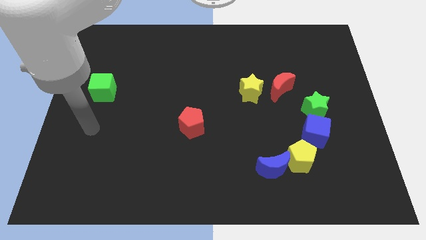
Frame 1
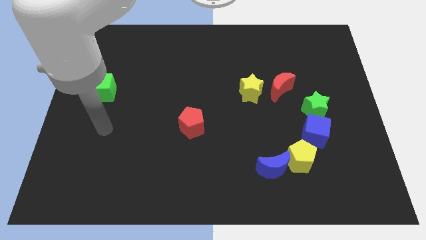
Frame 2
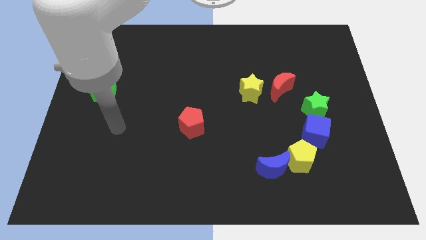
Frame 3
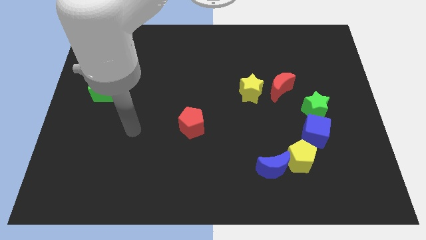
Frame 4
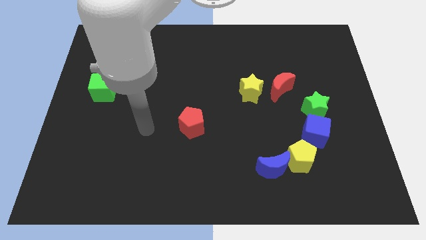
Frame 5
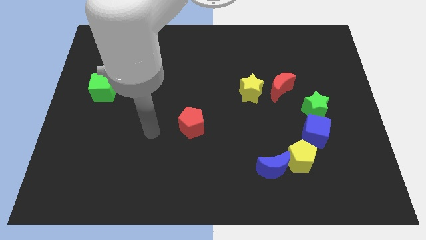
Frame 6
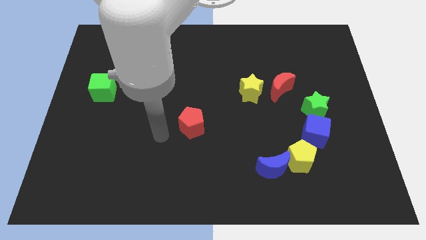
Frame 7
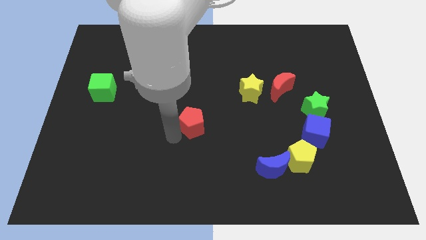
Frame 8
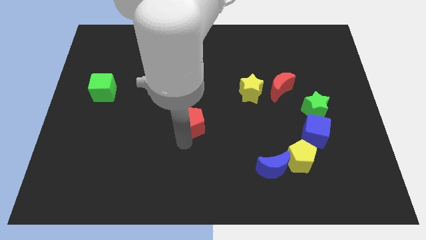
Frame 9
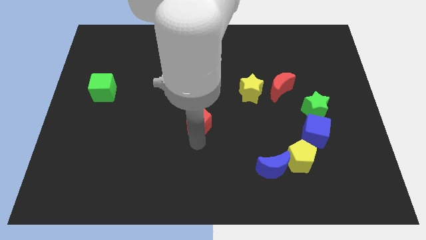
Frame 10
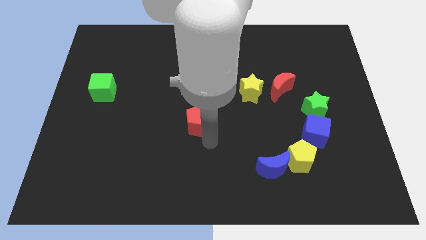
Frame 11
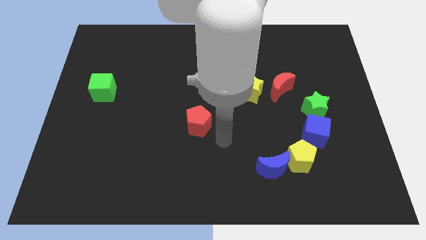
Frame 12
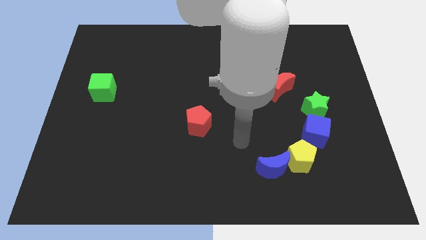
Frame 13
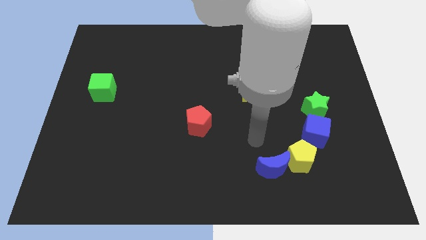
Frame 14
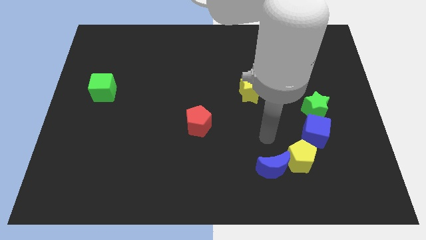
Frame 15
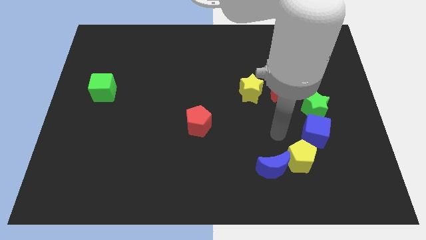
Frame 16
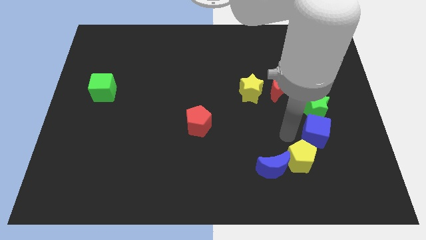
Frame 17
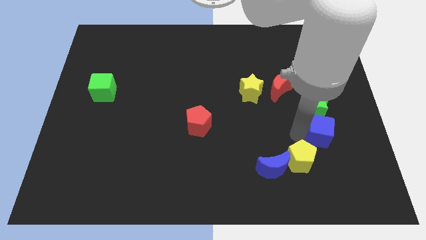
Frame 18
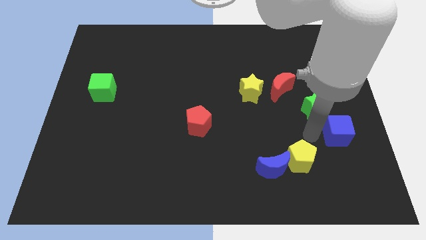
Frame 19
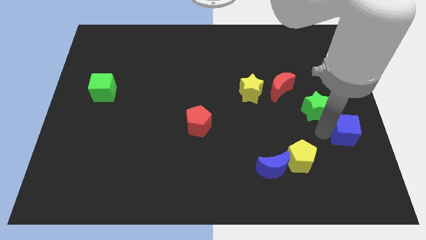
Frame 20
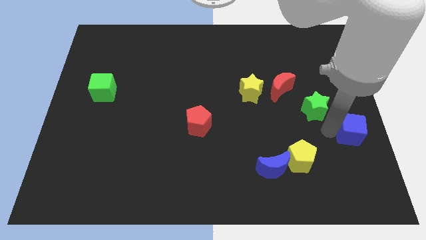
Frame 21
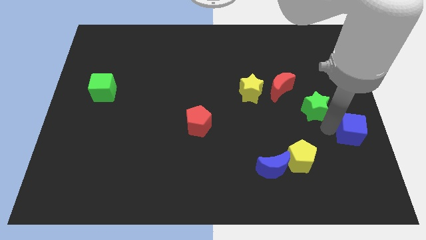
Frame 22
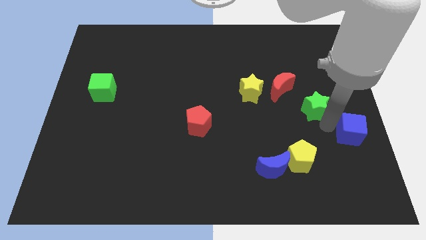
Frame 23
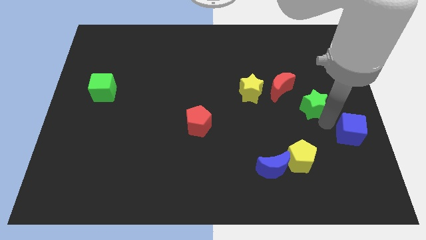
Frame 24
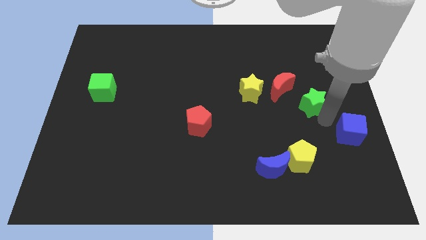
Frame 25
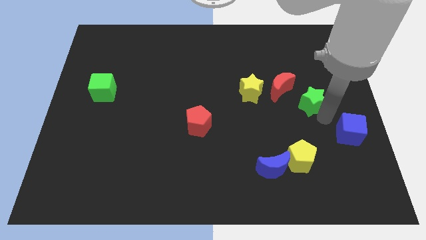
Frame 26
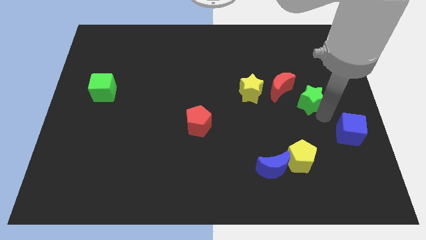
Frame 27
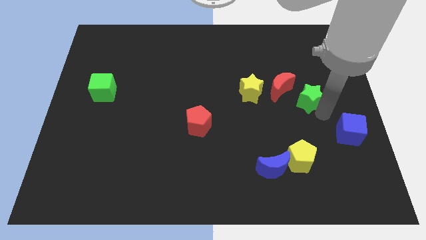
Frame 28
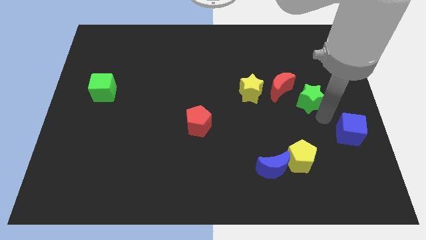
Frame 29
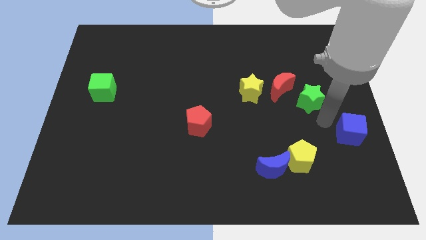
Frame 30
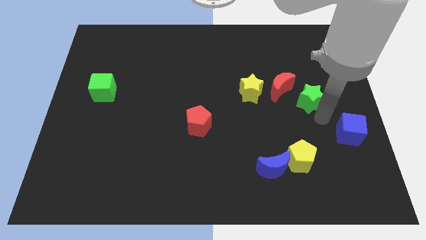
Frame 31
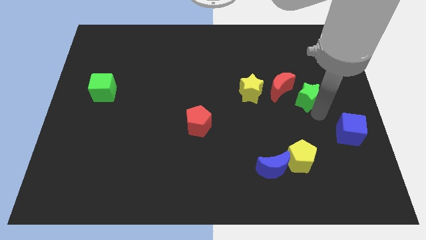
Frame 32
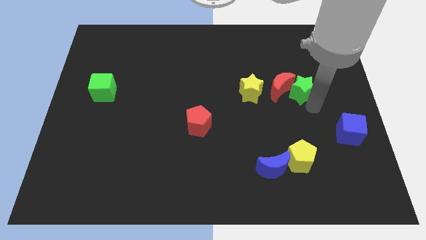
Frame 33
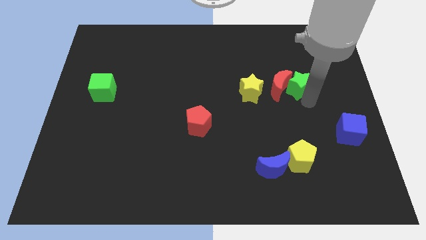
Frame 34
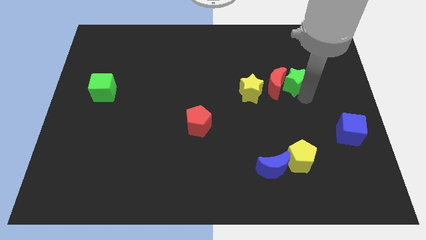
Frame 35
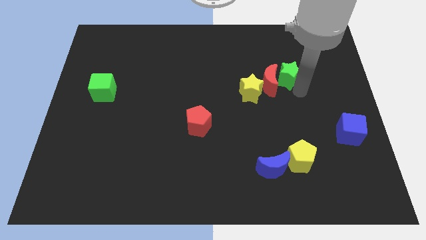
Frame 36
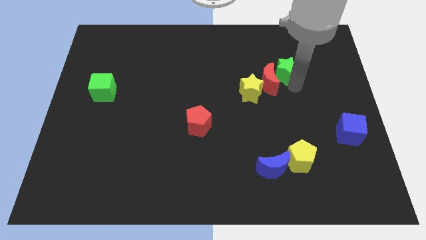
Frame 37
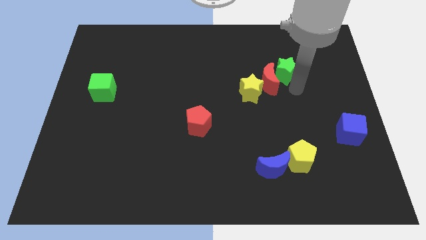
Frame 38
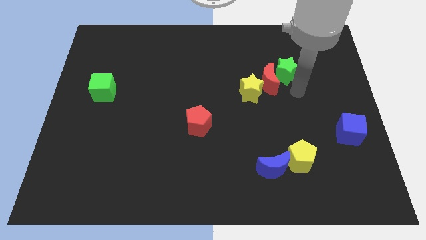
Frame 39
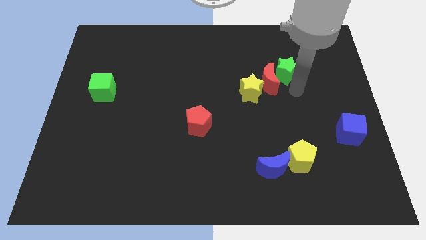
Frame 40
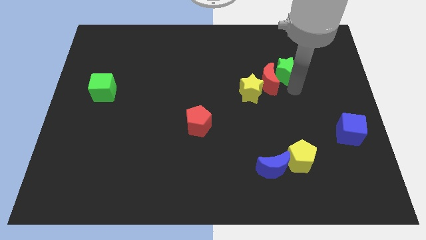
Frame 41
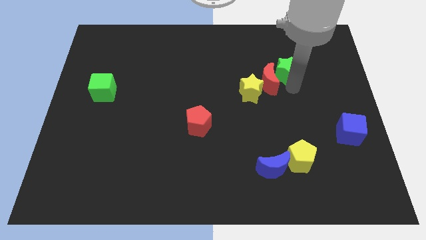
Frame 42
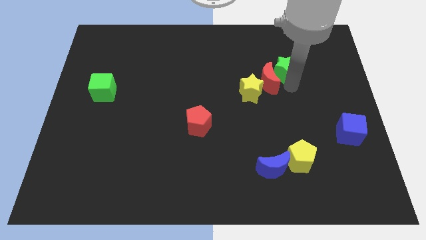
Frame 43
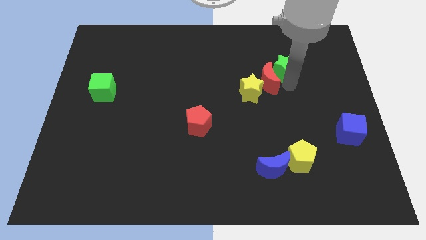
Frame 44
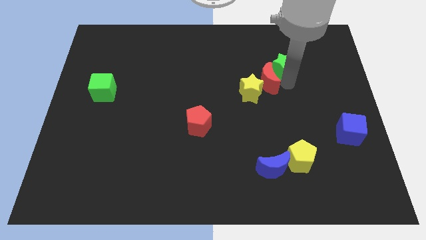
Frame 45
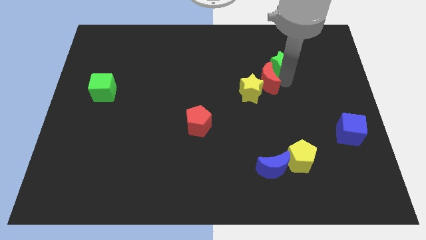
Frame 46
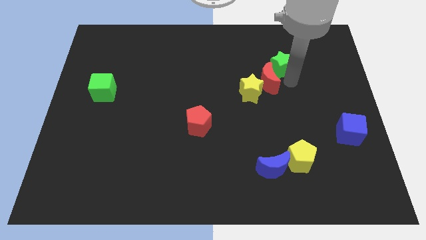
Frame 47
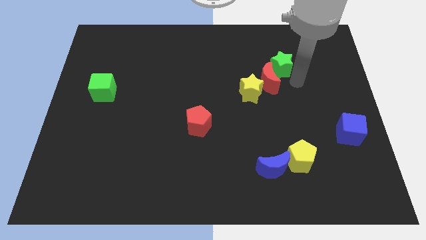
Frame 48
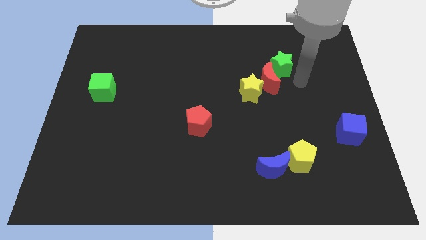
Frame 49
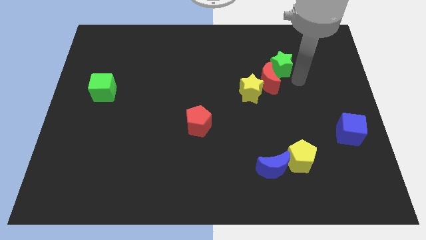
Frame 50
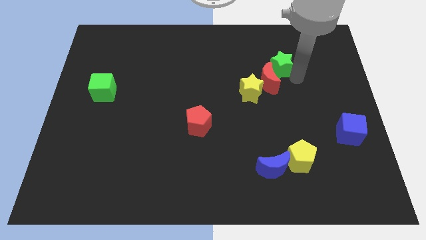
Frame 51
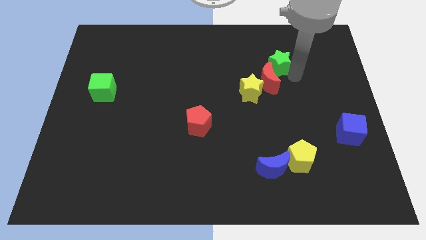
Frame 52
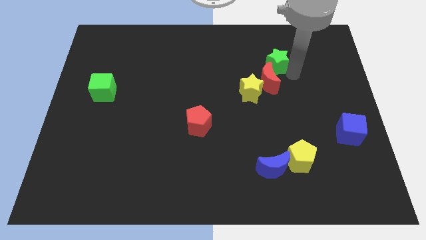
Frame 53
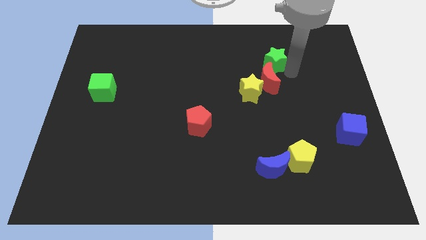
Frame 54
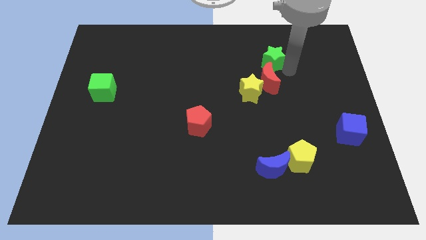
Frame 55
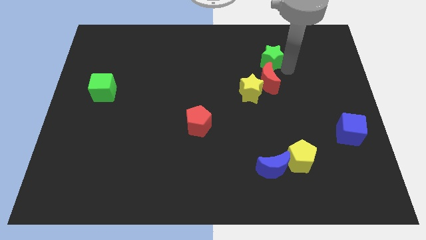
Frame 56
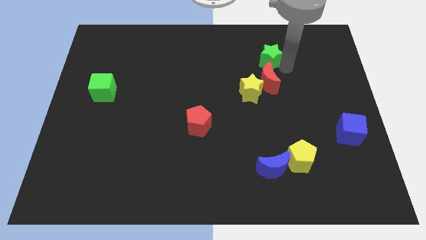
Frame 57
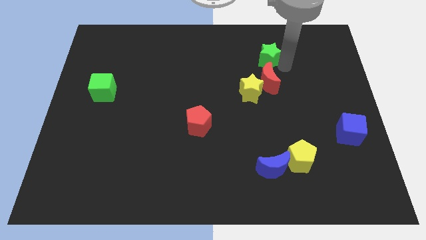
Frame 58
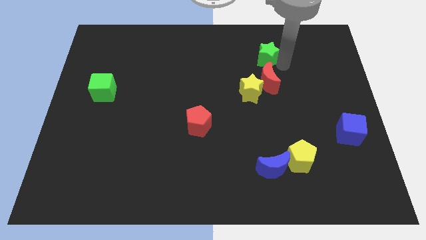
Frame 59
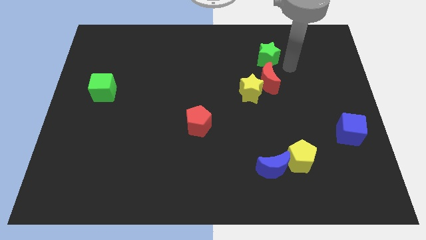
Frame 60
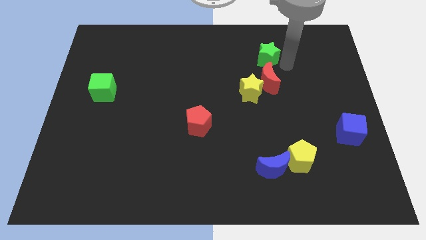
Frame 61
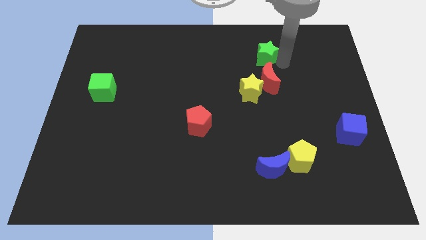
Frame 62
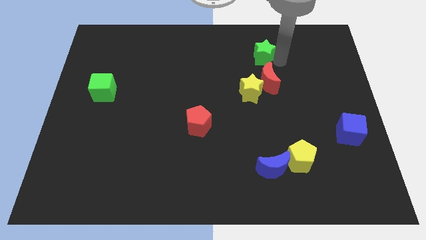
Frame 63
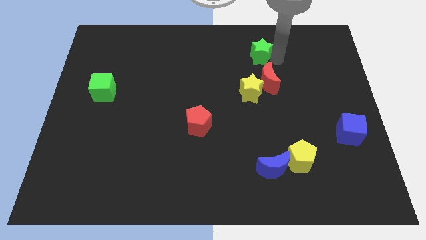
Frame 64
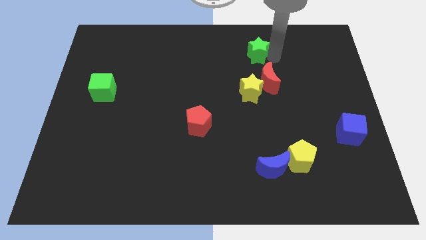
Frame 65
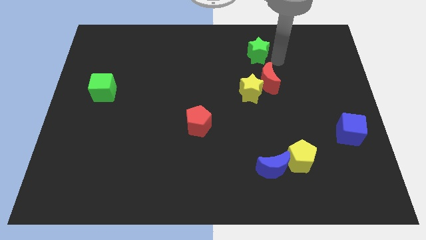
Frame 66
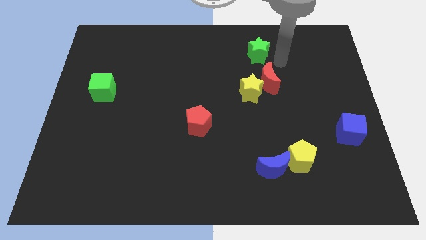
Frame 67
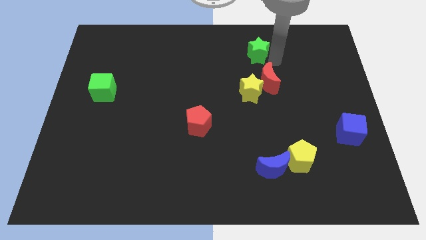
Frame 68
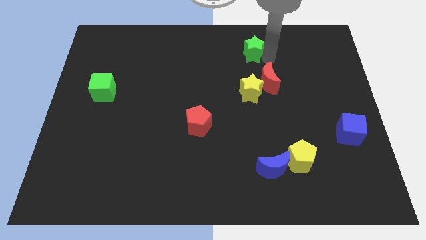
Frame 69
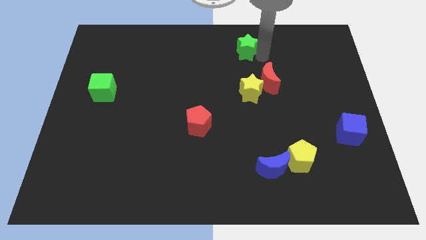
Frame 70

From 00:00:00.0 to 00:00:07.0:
slide the green star to the top side
